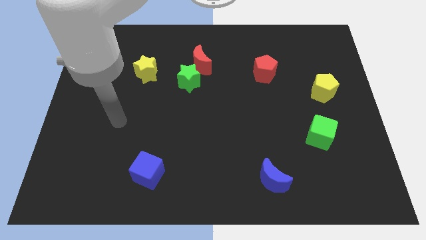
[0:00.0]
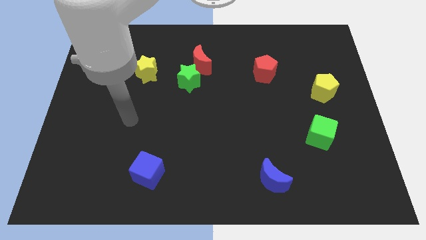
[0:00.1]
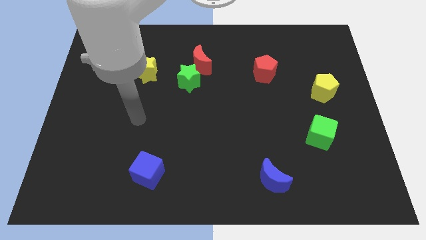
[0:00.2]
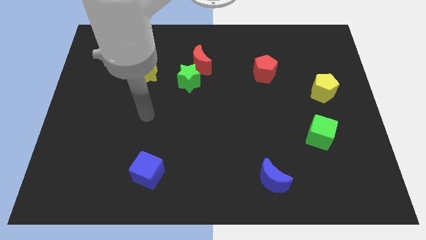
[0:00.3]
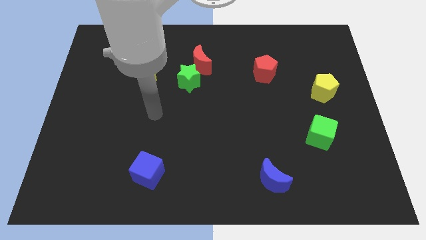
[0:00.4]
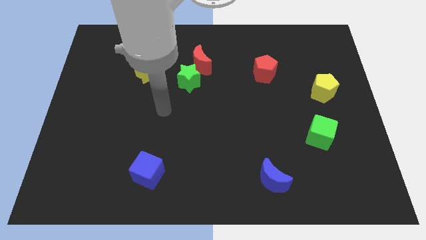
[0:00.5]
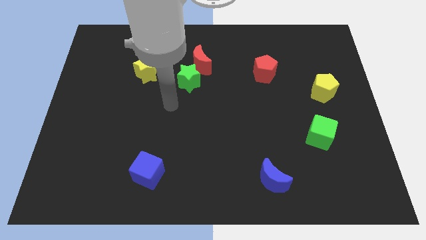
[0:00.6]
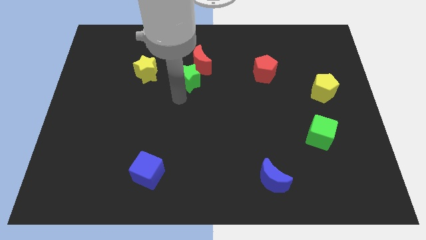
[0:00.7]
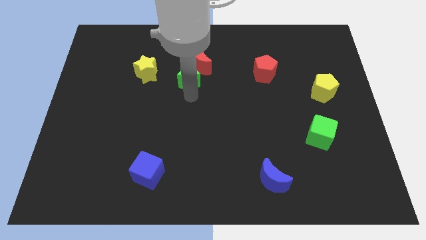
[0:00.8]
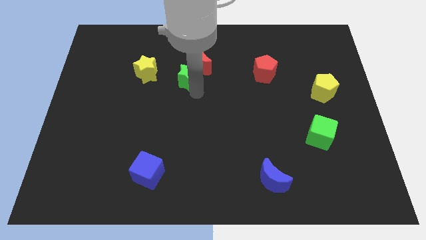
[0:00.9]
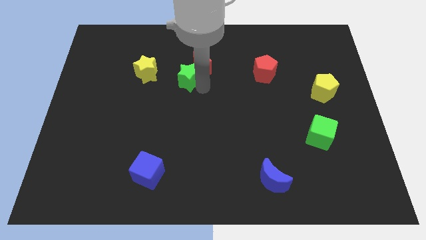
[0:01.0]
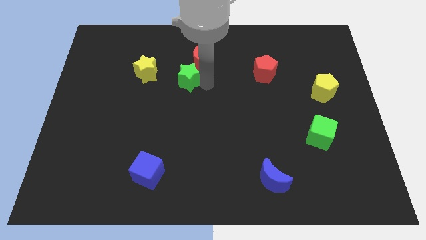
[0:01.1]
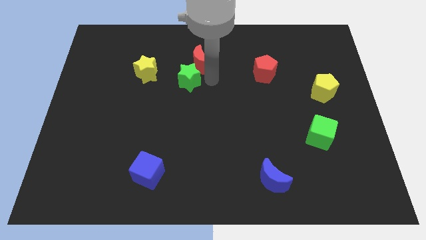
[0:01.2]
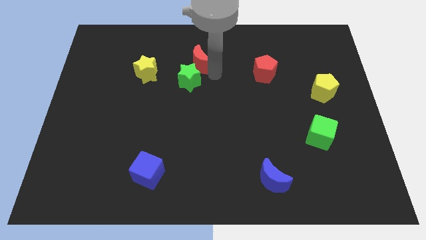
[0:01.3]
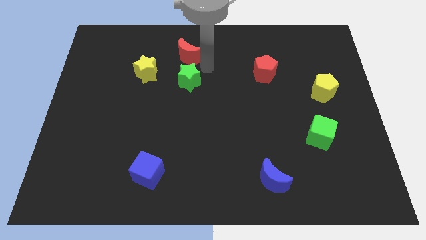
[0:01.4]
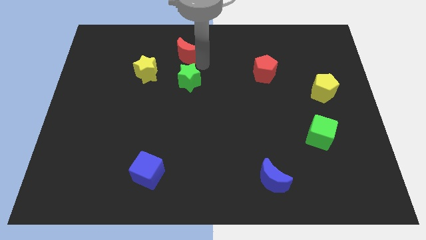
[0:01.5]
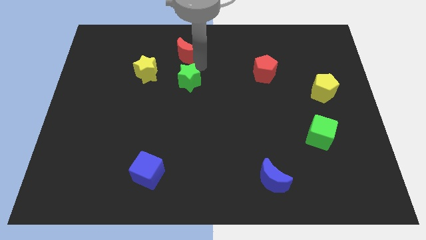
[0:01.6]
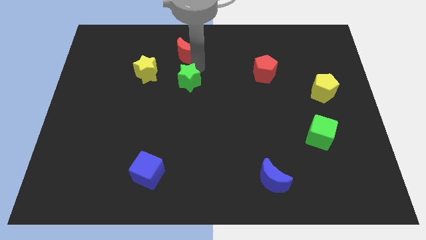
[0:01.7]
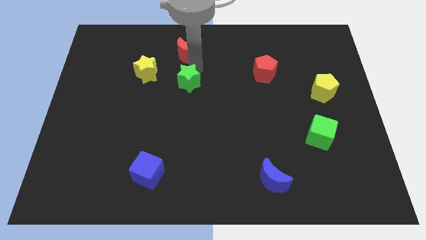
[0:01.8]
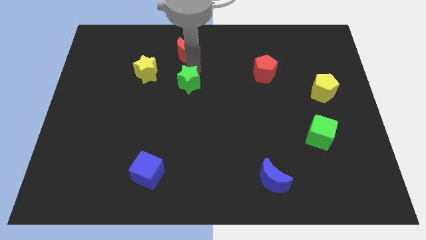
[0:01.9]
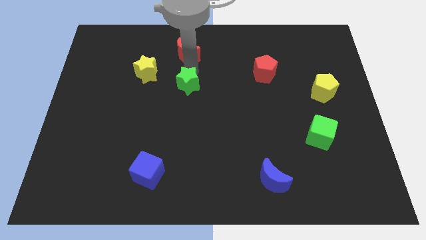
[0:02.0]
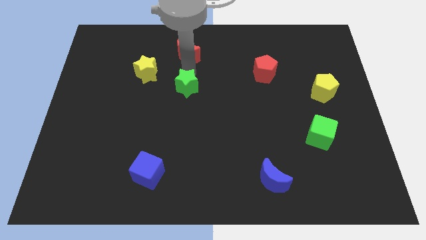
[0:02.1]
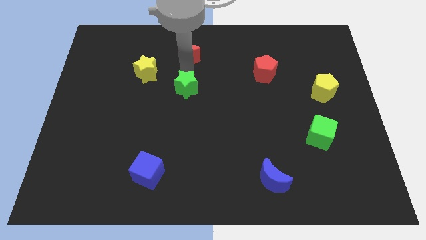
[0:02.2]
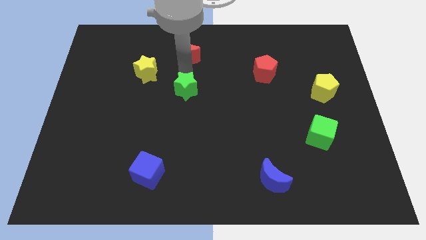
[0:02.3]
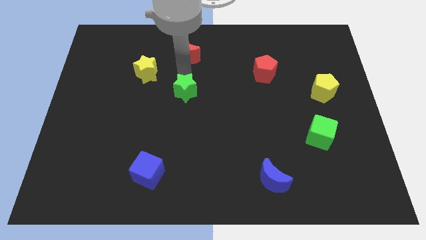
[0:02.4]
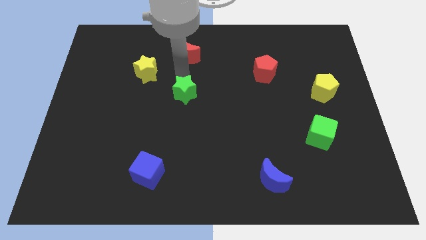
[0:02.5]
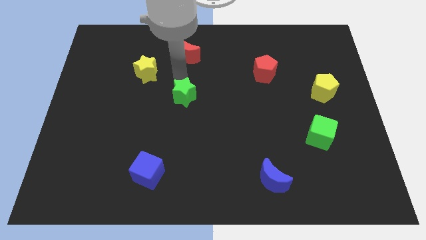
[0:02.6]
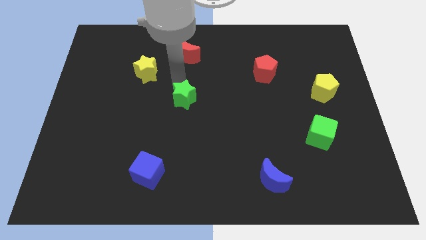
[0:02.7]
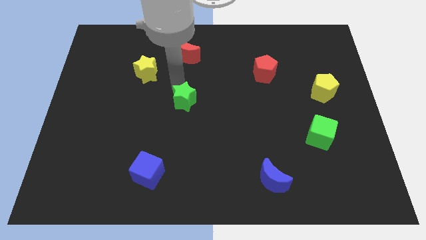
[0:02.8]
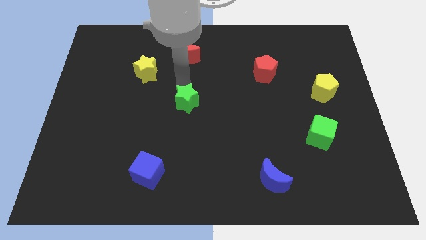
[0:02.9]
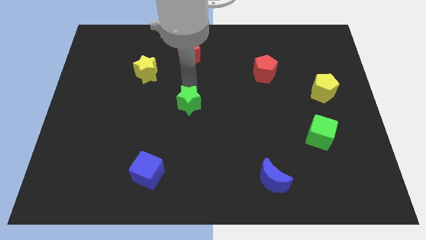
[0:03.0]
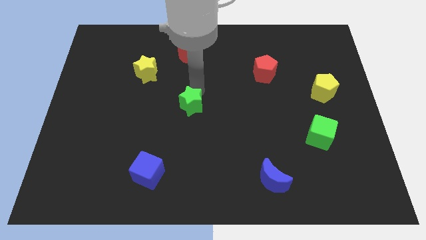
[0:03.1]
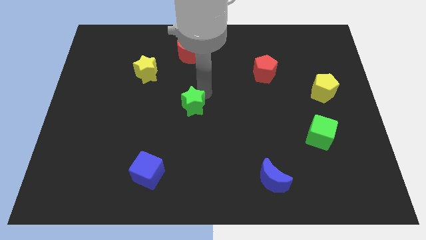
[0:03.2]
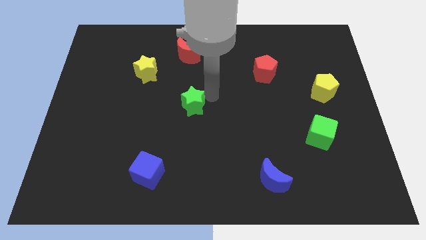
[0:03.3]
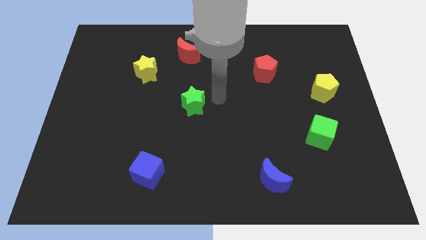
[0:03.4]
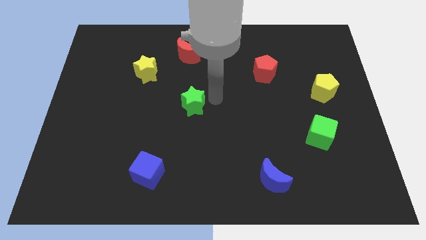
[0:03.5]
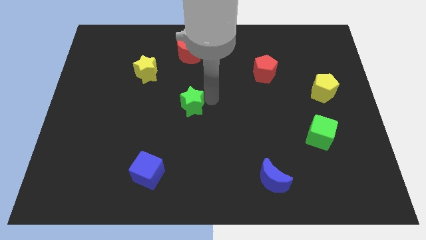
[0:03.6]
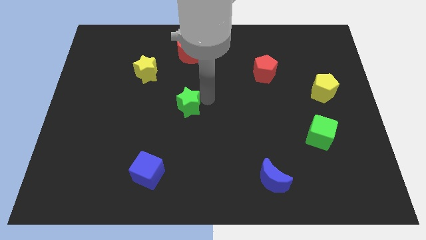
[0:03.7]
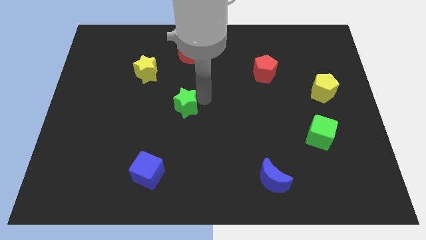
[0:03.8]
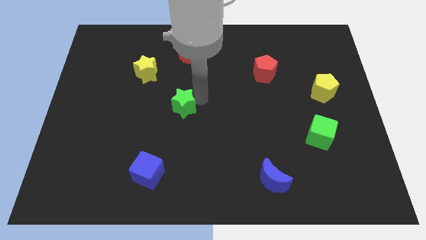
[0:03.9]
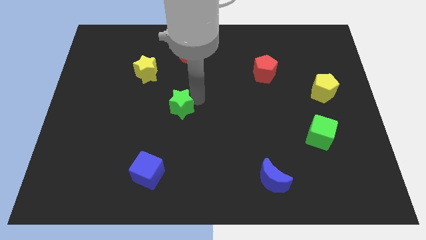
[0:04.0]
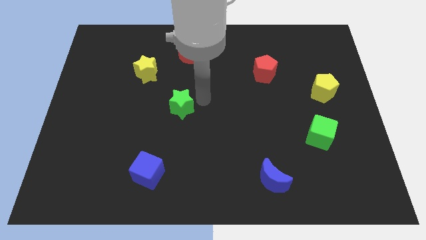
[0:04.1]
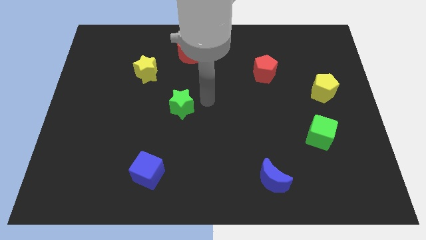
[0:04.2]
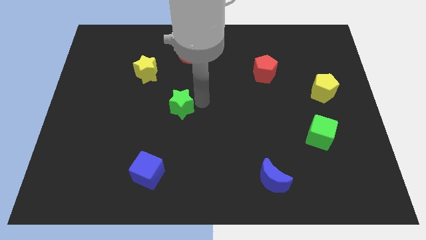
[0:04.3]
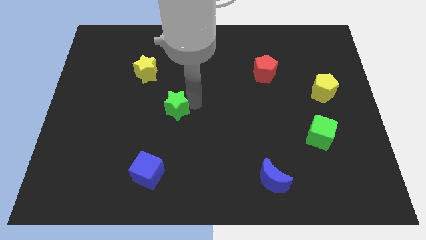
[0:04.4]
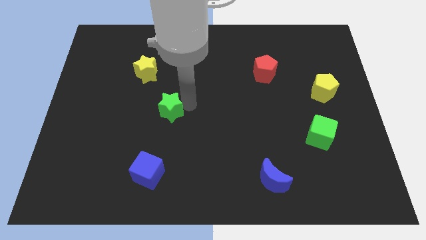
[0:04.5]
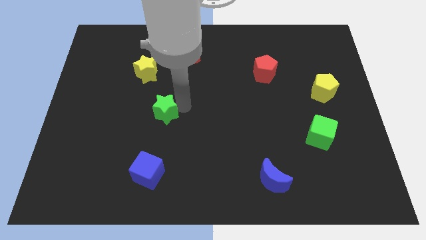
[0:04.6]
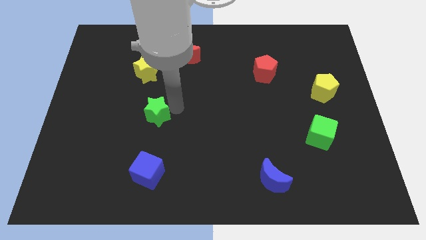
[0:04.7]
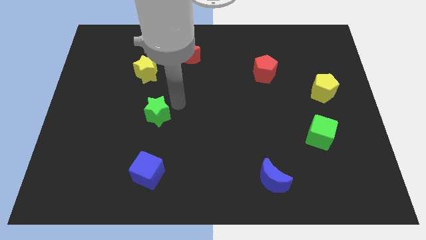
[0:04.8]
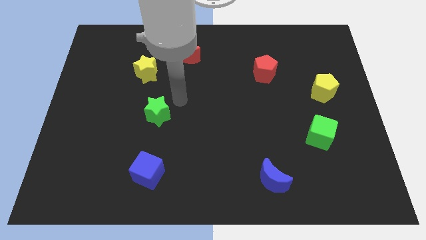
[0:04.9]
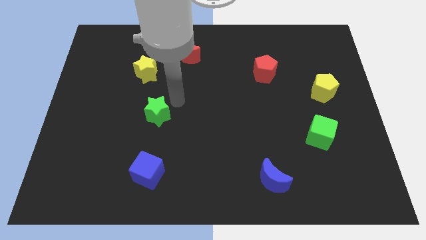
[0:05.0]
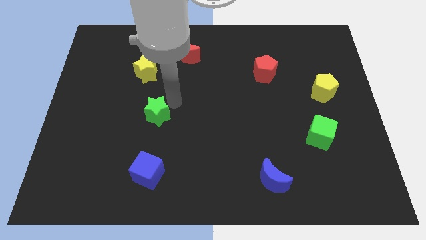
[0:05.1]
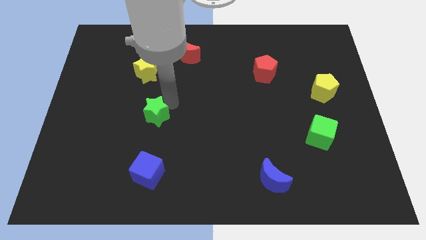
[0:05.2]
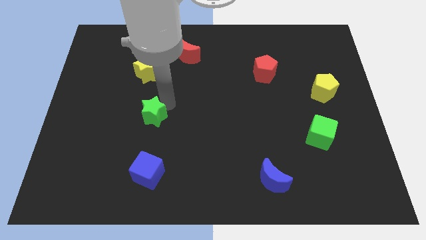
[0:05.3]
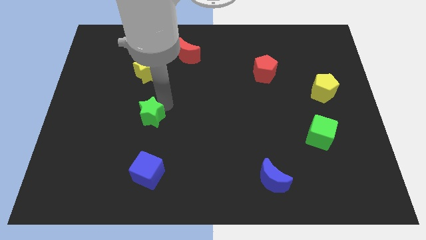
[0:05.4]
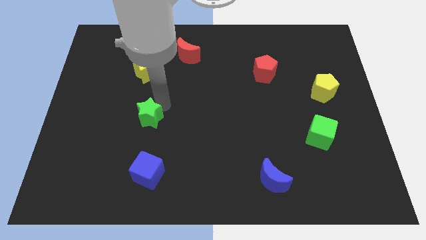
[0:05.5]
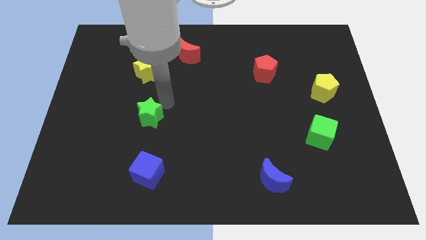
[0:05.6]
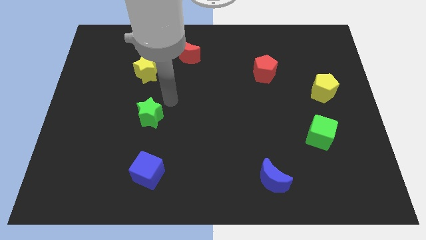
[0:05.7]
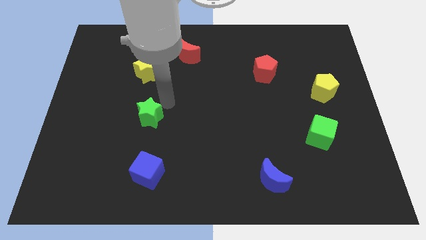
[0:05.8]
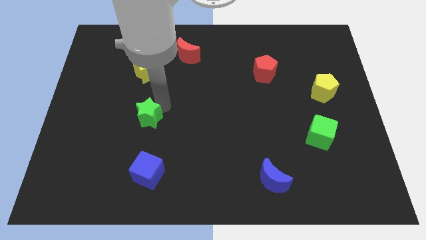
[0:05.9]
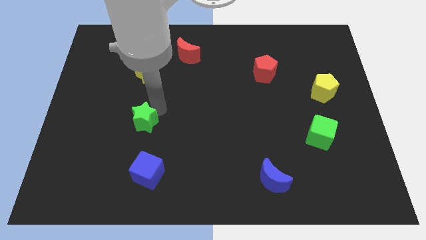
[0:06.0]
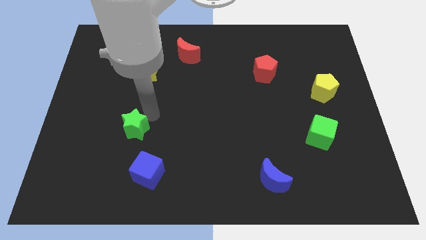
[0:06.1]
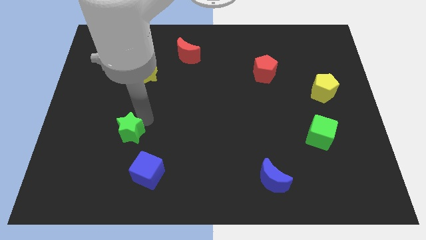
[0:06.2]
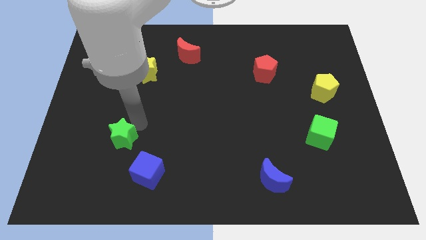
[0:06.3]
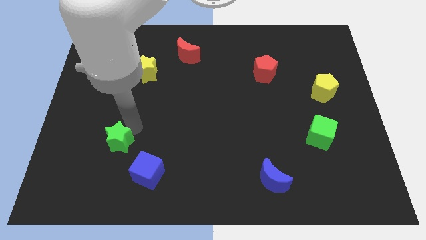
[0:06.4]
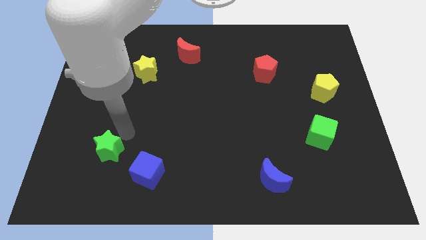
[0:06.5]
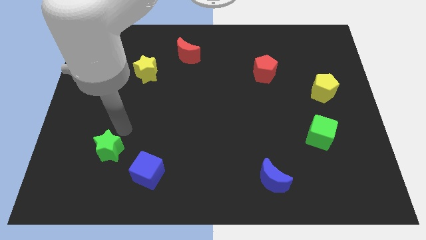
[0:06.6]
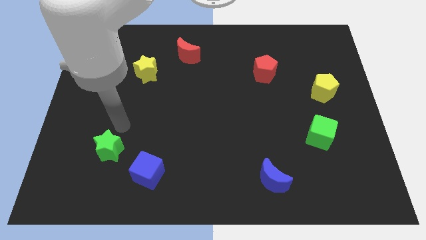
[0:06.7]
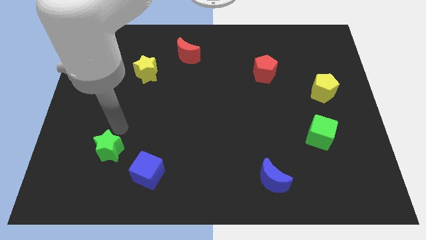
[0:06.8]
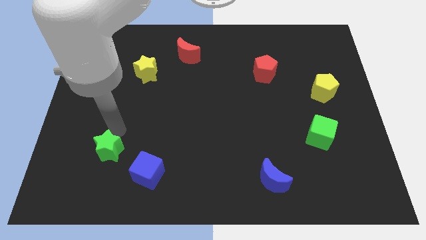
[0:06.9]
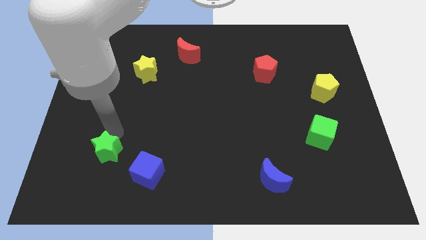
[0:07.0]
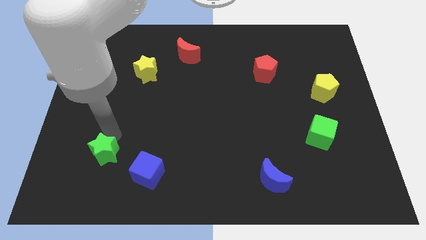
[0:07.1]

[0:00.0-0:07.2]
push the green star left of the blue cube

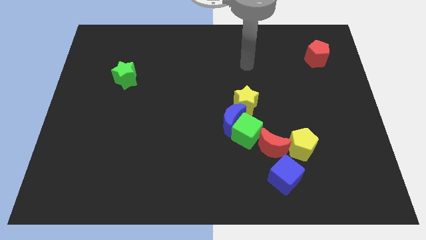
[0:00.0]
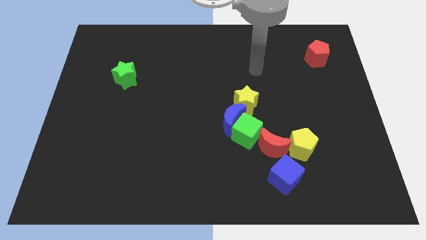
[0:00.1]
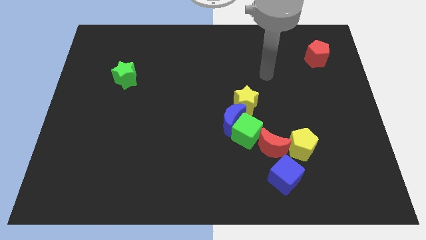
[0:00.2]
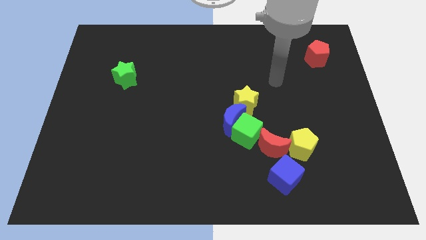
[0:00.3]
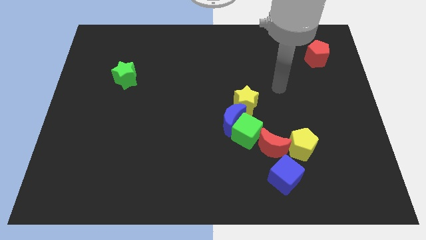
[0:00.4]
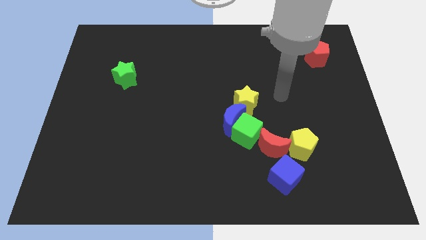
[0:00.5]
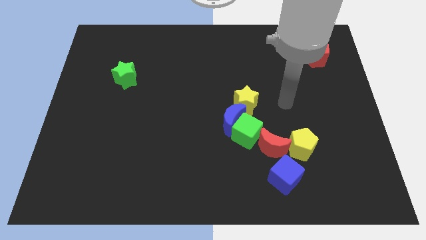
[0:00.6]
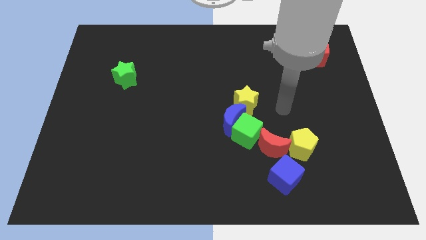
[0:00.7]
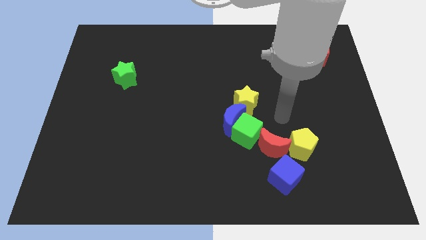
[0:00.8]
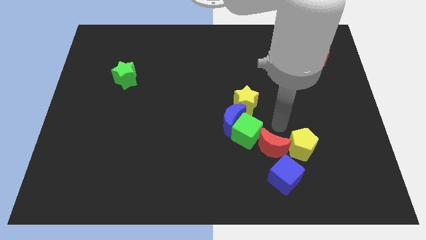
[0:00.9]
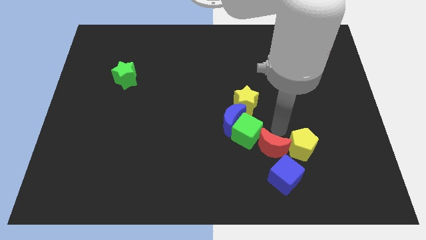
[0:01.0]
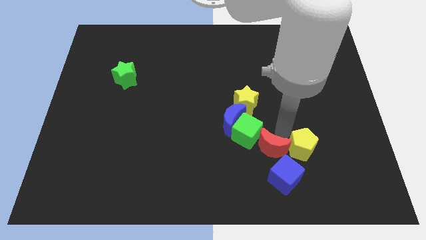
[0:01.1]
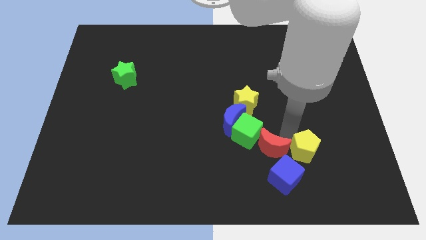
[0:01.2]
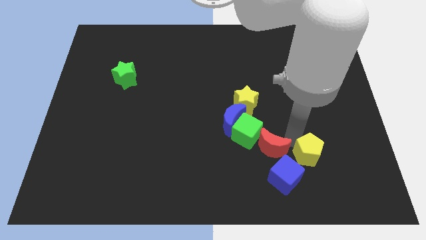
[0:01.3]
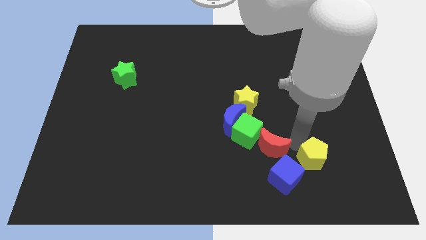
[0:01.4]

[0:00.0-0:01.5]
put the yellow pentagon to the right of the blue cube

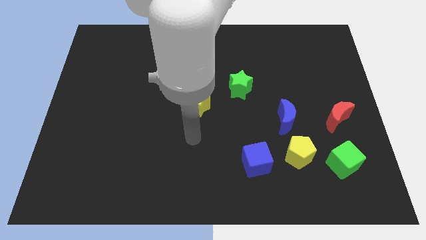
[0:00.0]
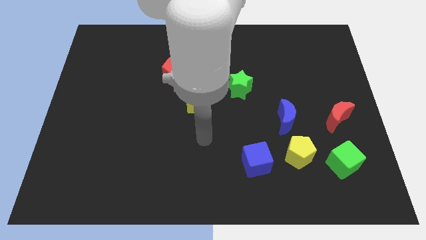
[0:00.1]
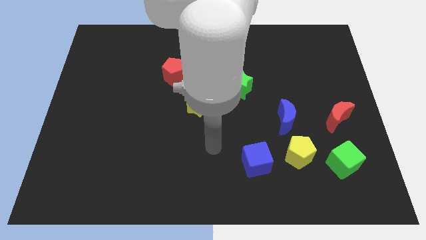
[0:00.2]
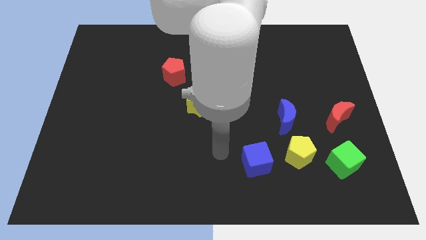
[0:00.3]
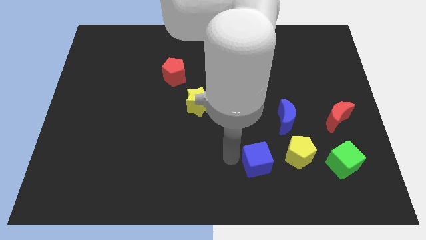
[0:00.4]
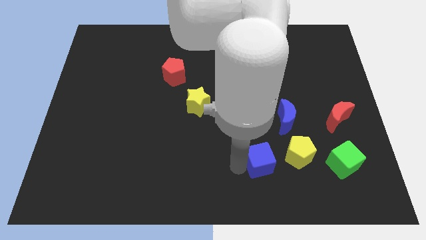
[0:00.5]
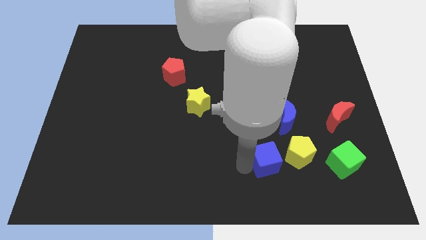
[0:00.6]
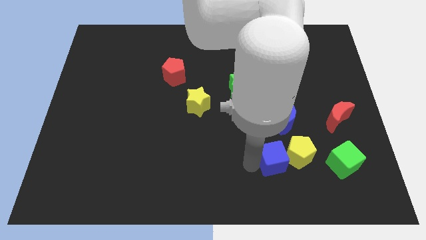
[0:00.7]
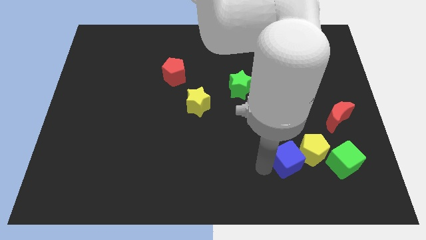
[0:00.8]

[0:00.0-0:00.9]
put the yellow pentagon to the bottom left side of the red moon
